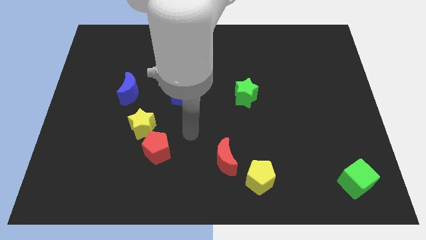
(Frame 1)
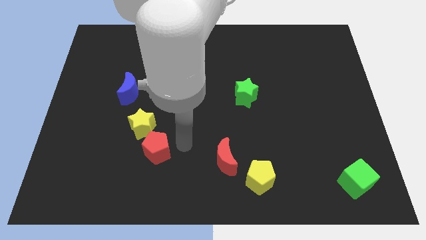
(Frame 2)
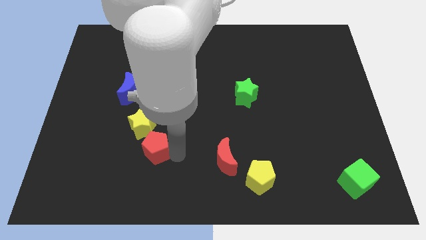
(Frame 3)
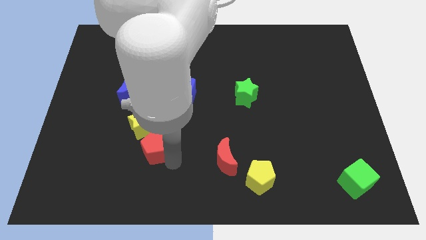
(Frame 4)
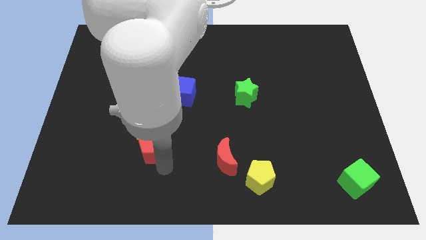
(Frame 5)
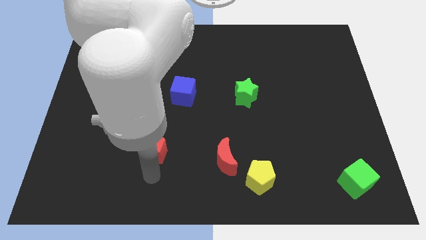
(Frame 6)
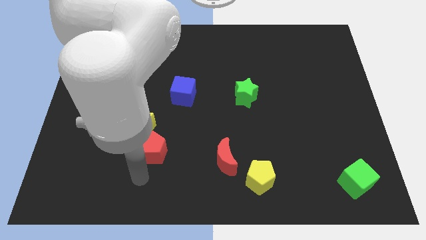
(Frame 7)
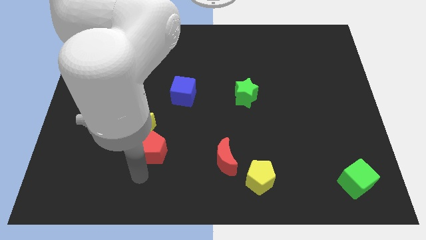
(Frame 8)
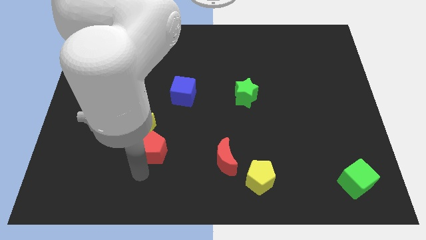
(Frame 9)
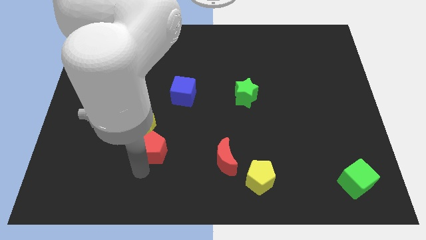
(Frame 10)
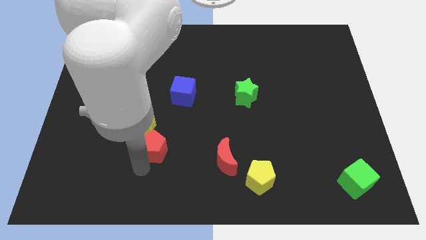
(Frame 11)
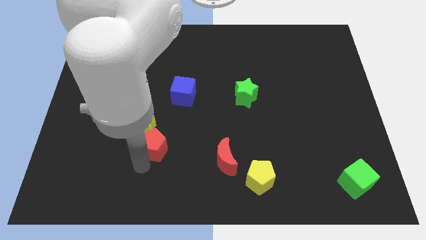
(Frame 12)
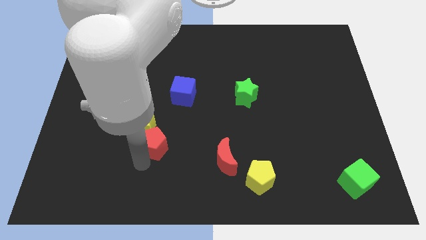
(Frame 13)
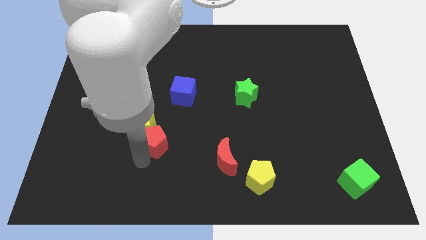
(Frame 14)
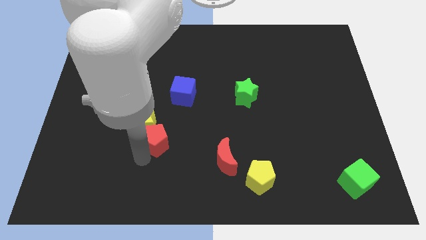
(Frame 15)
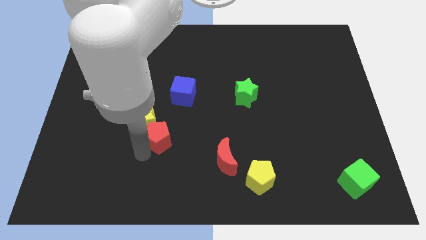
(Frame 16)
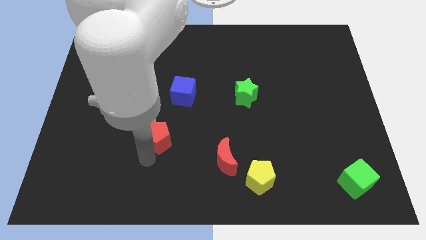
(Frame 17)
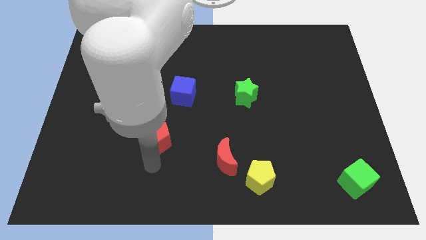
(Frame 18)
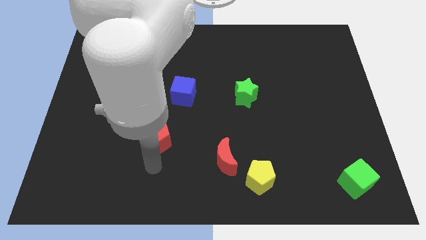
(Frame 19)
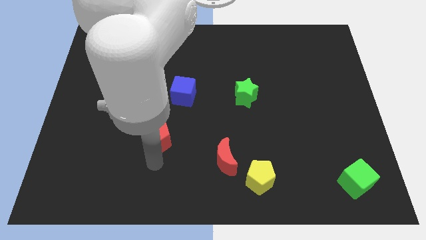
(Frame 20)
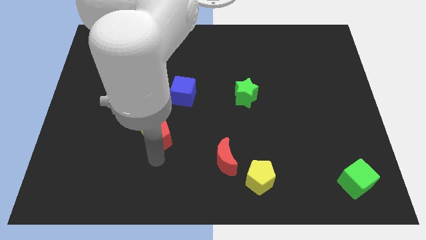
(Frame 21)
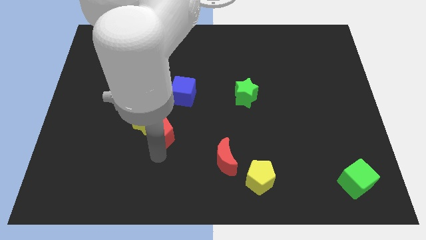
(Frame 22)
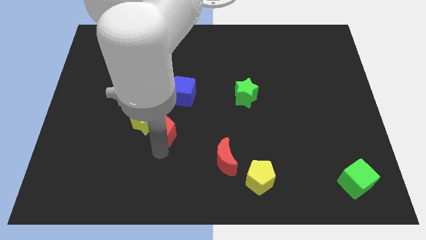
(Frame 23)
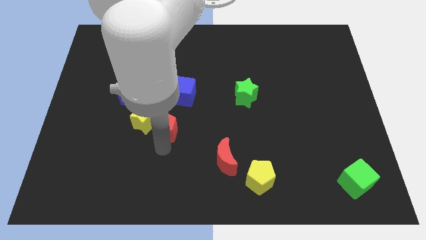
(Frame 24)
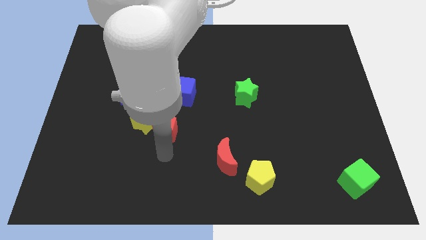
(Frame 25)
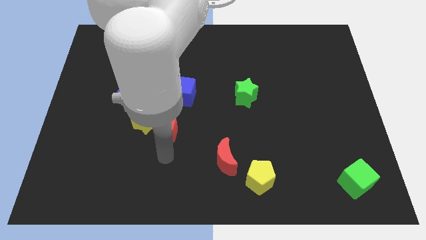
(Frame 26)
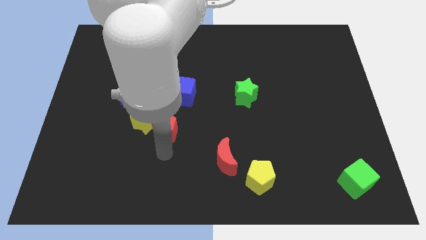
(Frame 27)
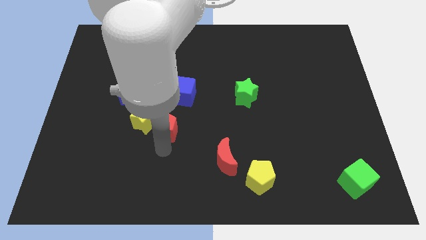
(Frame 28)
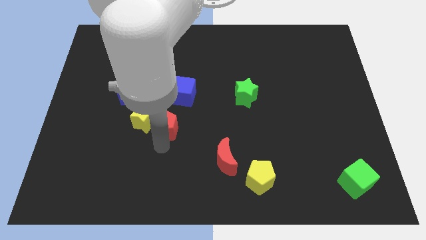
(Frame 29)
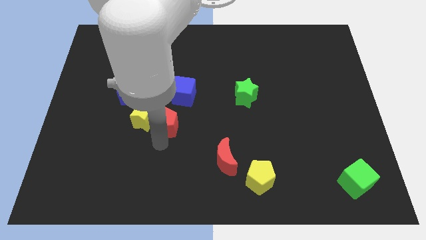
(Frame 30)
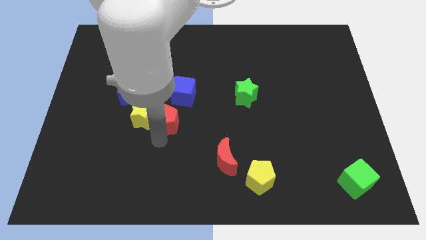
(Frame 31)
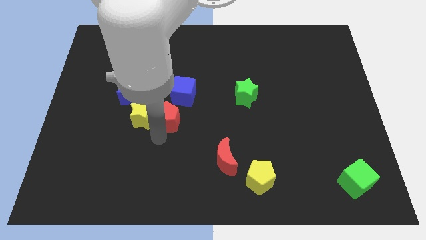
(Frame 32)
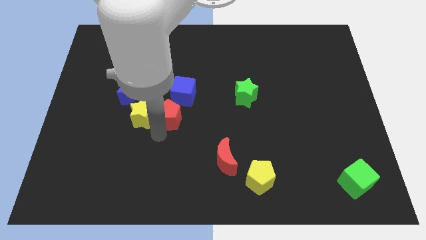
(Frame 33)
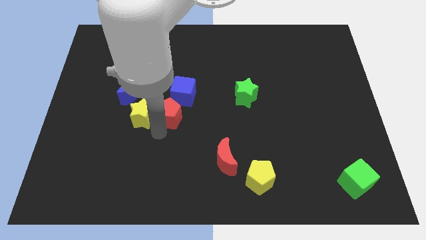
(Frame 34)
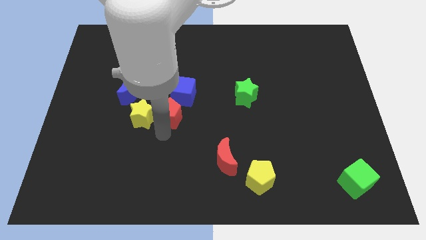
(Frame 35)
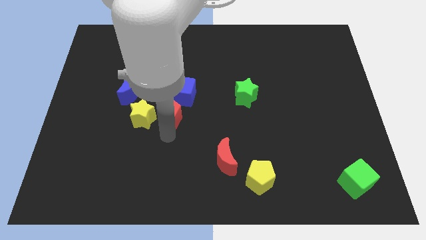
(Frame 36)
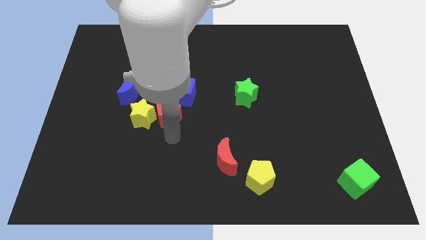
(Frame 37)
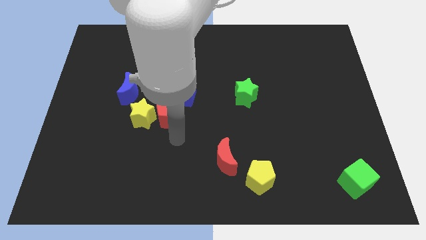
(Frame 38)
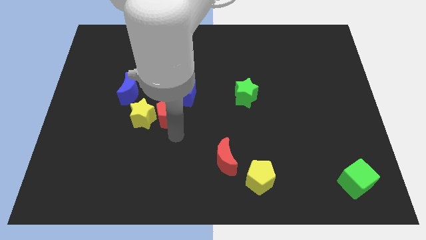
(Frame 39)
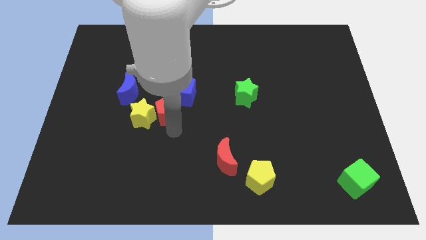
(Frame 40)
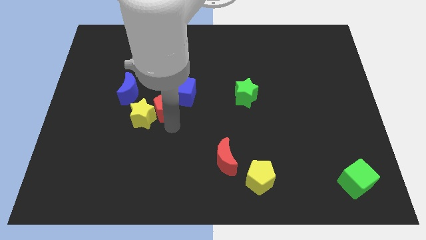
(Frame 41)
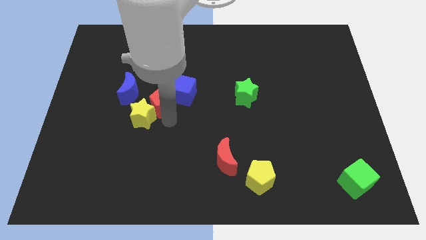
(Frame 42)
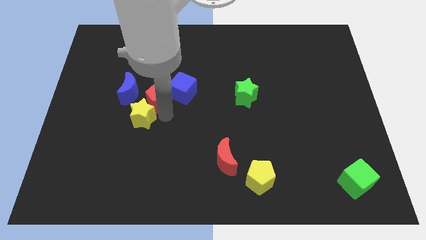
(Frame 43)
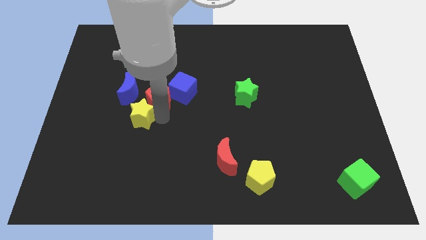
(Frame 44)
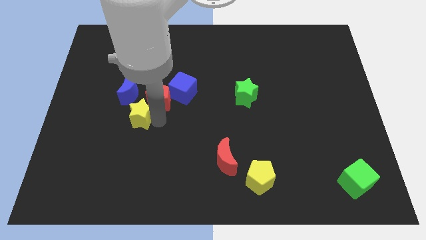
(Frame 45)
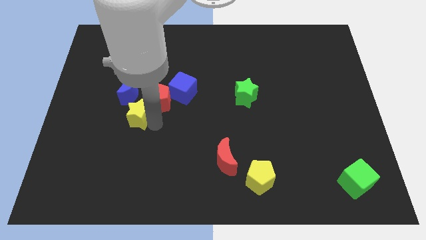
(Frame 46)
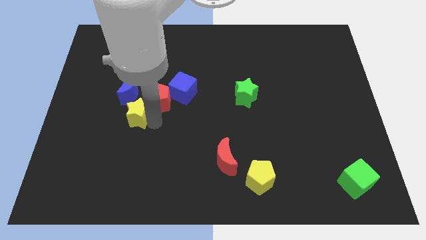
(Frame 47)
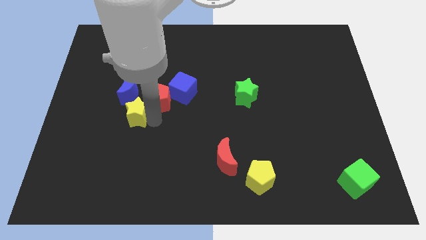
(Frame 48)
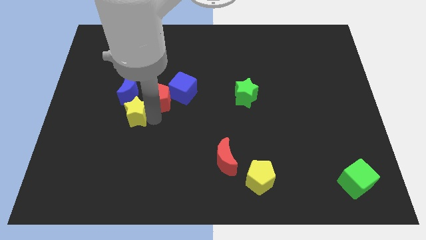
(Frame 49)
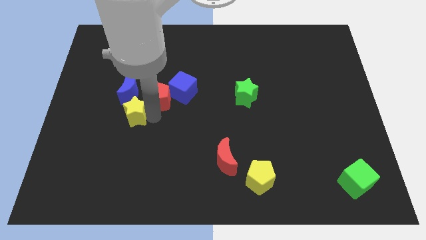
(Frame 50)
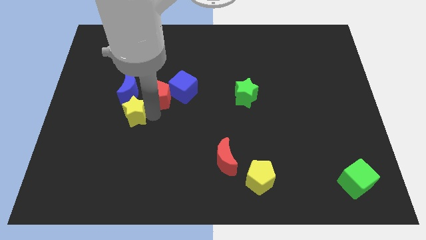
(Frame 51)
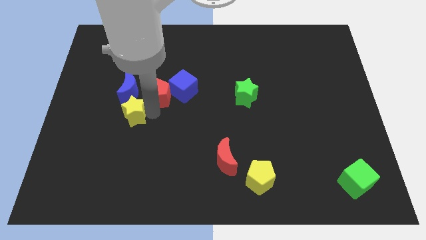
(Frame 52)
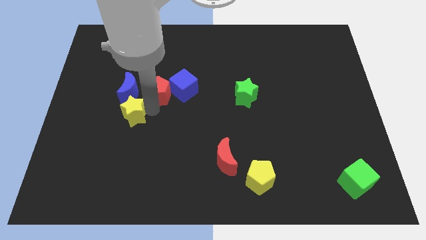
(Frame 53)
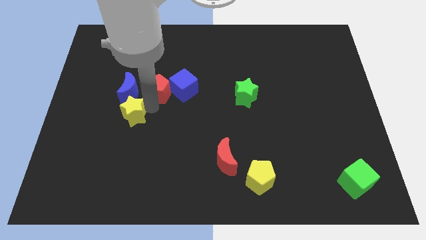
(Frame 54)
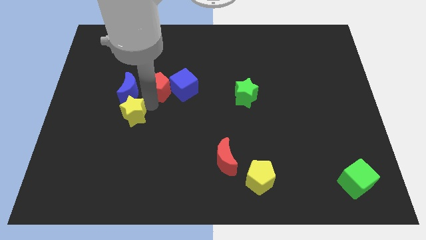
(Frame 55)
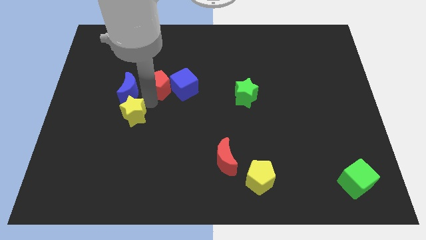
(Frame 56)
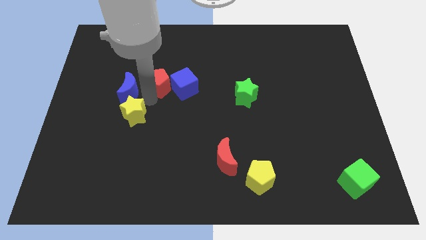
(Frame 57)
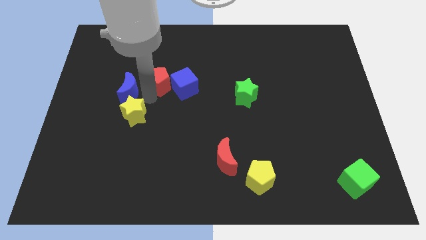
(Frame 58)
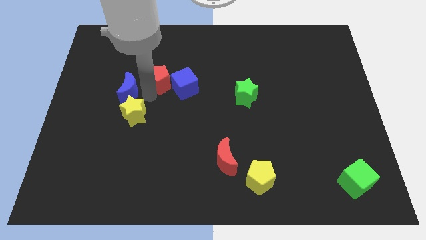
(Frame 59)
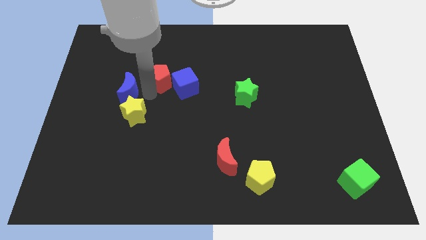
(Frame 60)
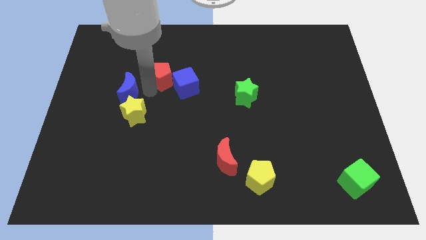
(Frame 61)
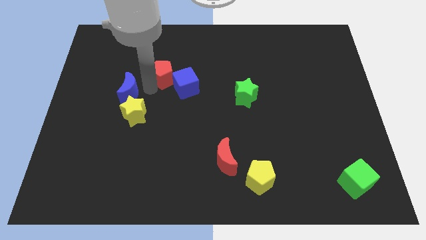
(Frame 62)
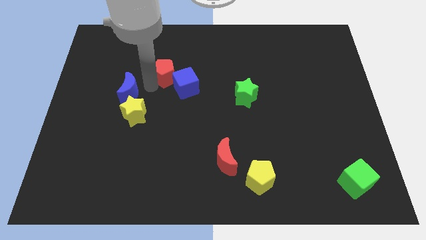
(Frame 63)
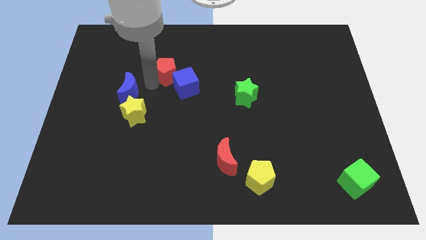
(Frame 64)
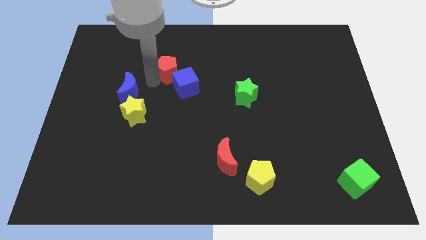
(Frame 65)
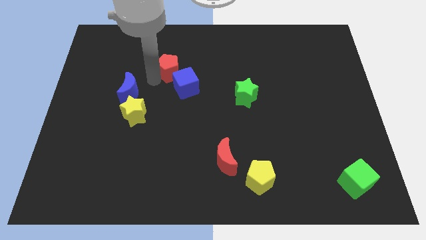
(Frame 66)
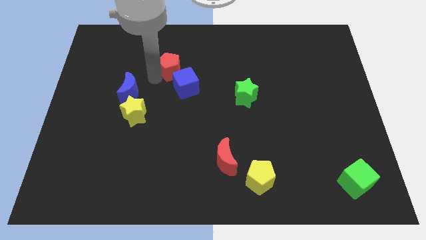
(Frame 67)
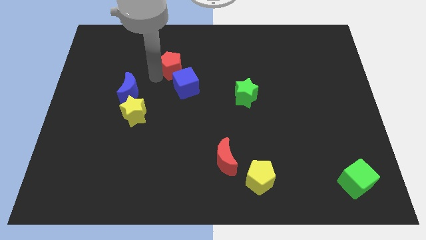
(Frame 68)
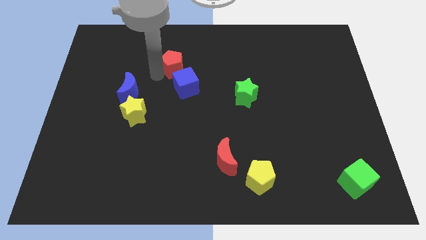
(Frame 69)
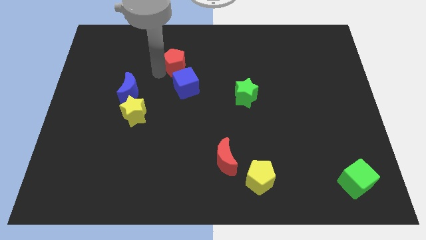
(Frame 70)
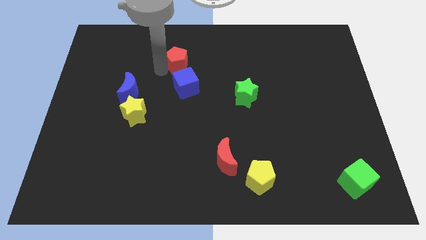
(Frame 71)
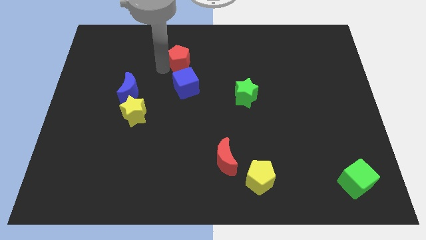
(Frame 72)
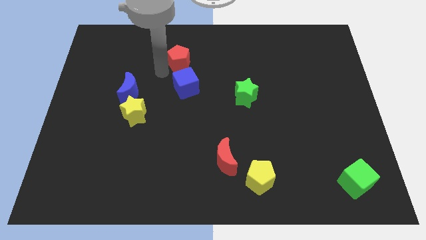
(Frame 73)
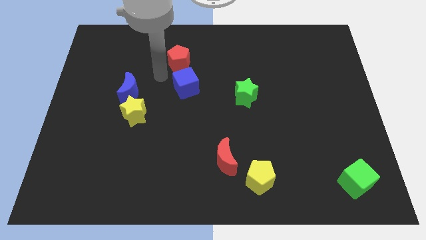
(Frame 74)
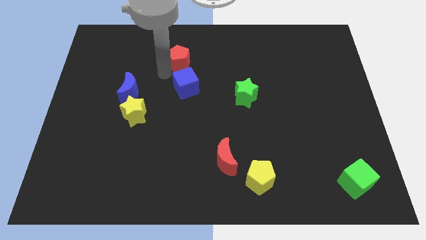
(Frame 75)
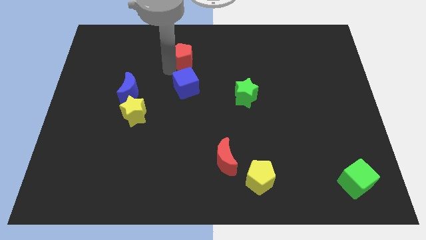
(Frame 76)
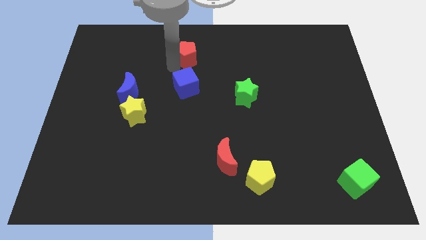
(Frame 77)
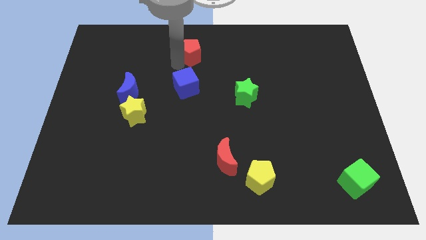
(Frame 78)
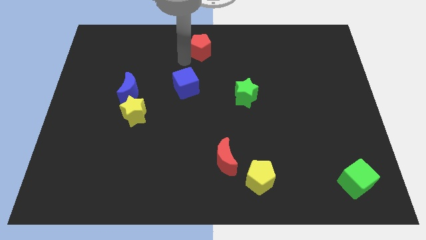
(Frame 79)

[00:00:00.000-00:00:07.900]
move the red pentagon to the towards your base
